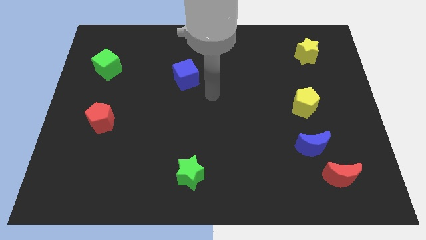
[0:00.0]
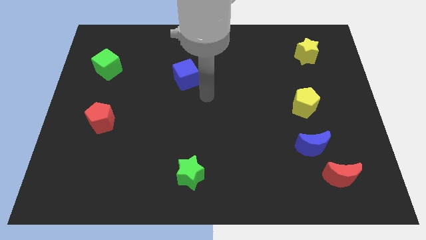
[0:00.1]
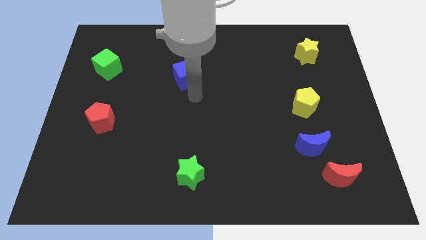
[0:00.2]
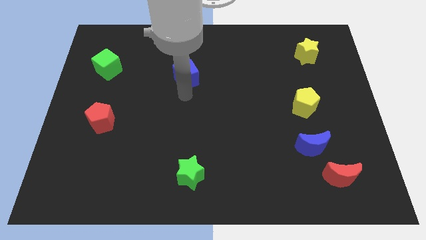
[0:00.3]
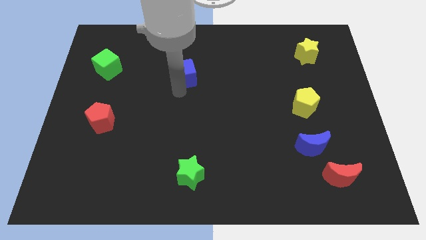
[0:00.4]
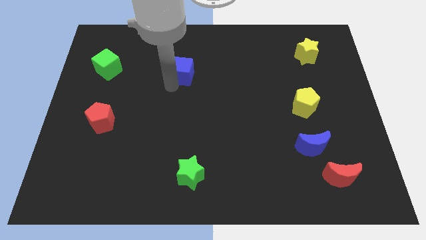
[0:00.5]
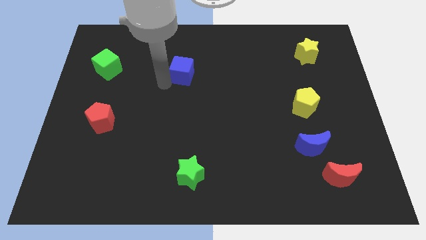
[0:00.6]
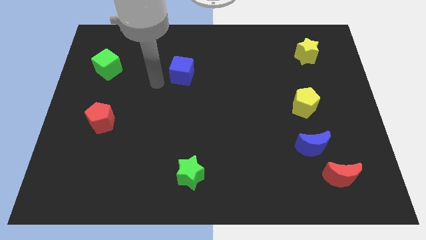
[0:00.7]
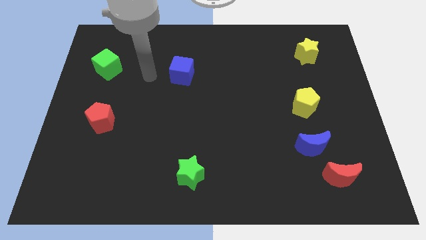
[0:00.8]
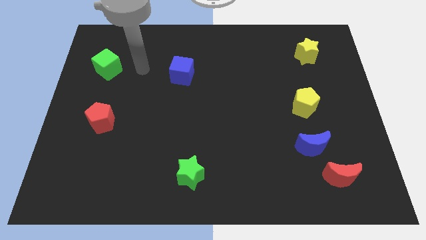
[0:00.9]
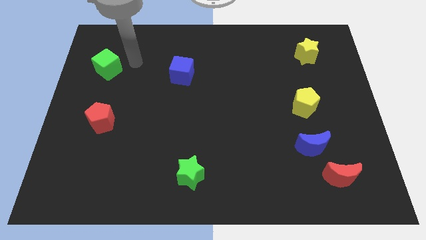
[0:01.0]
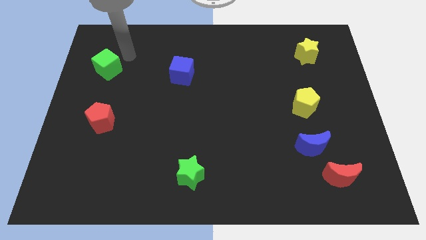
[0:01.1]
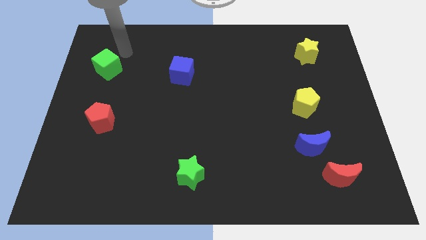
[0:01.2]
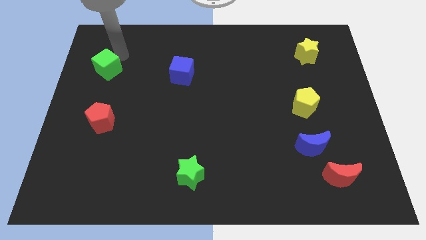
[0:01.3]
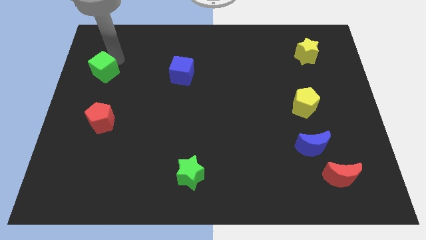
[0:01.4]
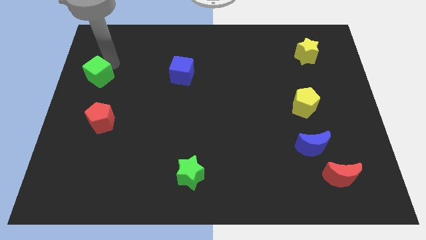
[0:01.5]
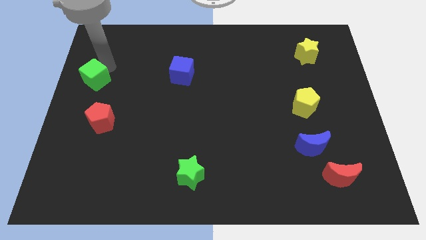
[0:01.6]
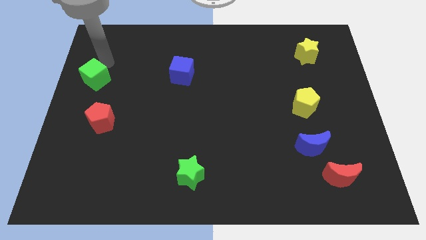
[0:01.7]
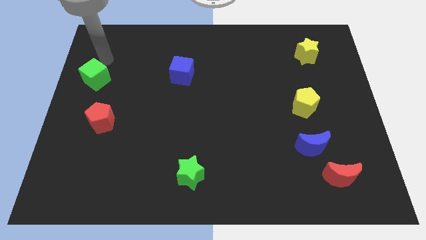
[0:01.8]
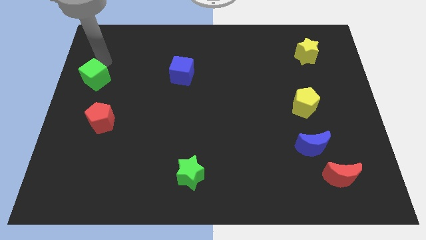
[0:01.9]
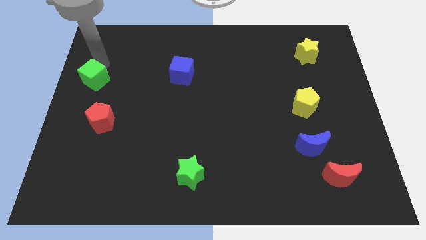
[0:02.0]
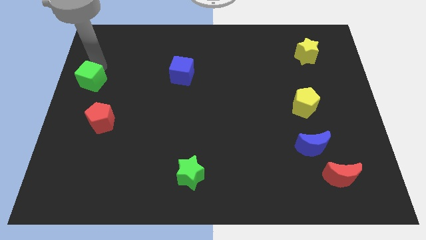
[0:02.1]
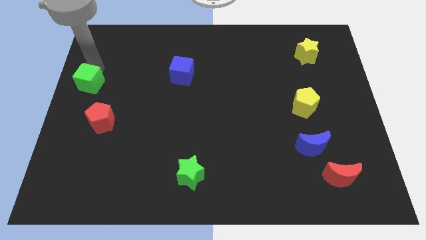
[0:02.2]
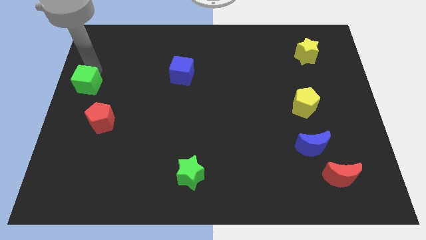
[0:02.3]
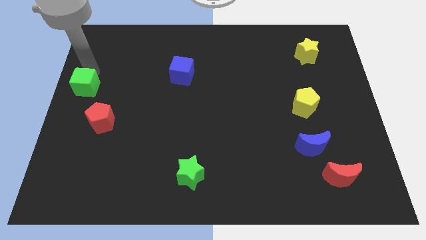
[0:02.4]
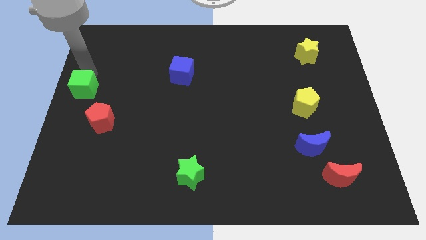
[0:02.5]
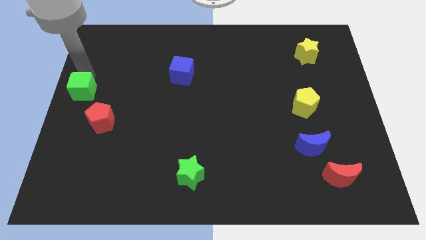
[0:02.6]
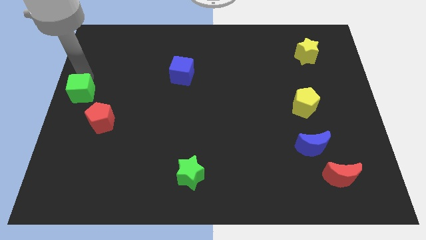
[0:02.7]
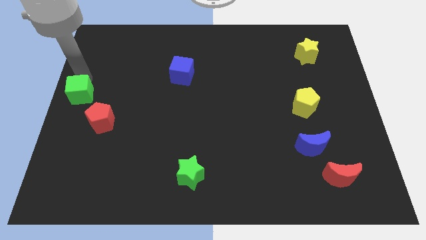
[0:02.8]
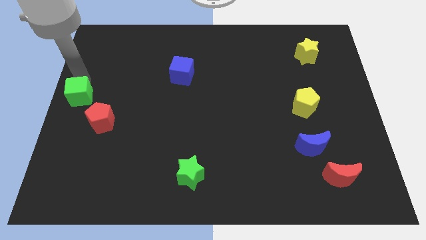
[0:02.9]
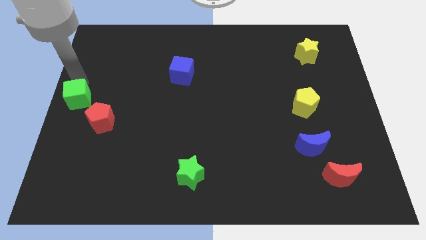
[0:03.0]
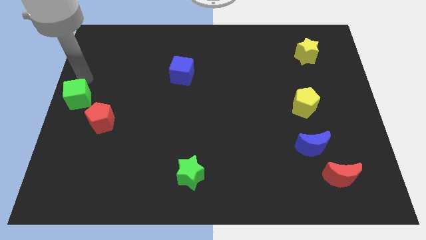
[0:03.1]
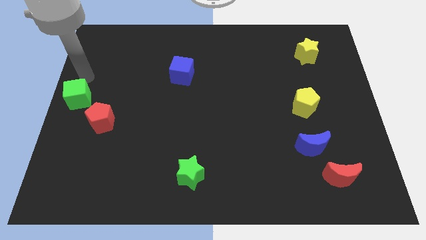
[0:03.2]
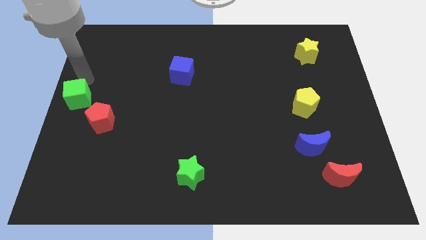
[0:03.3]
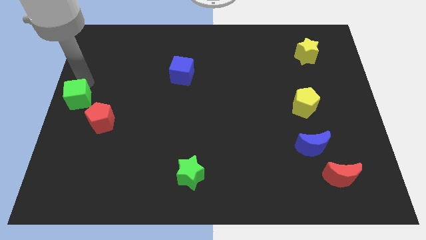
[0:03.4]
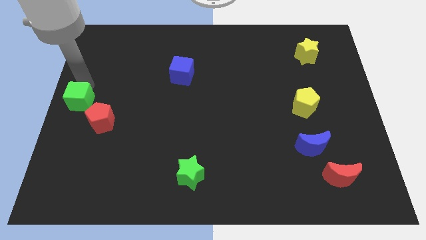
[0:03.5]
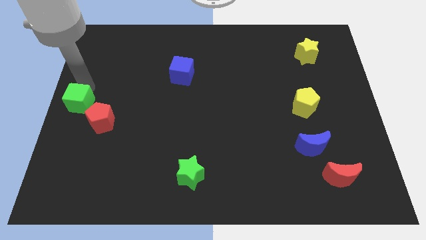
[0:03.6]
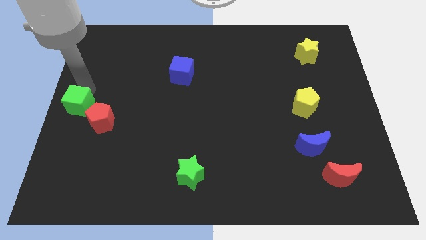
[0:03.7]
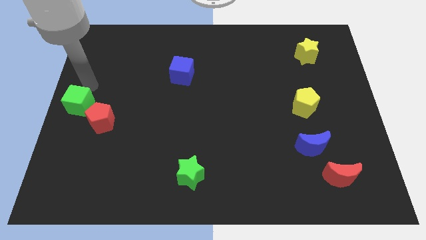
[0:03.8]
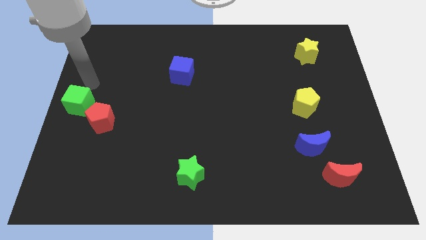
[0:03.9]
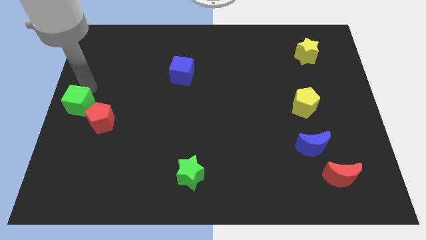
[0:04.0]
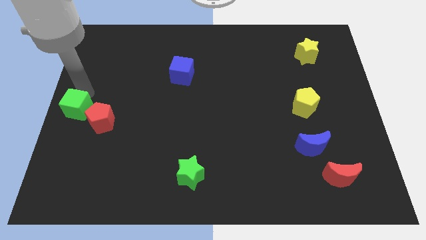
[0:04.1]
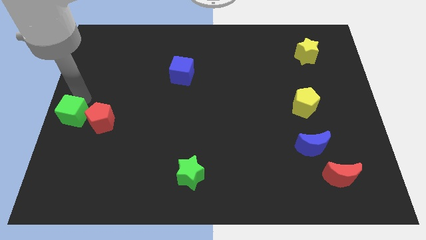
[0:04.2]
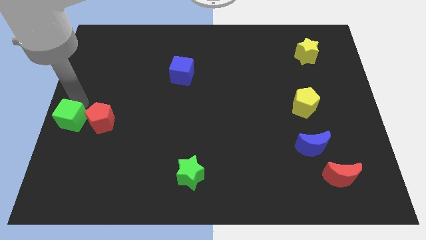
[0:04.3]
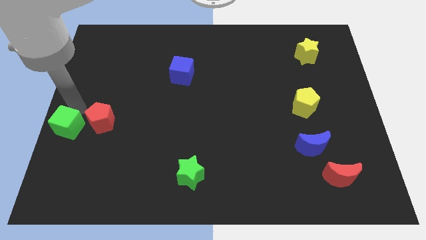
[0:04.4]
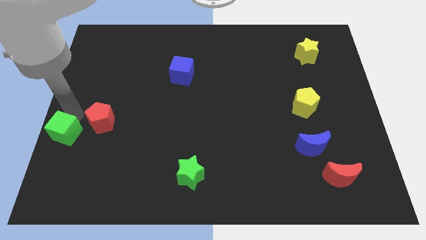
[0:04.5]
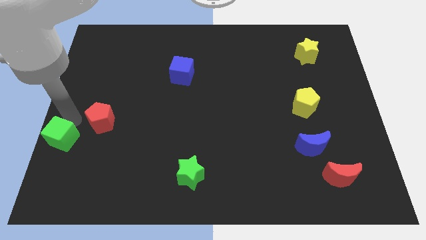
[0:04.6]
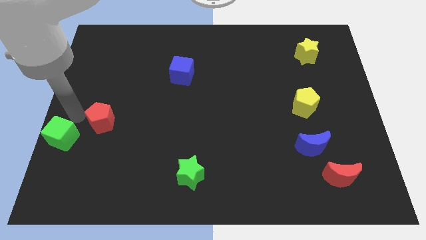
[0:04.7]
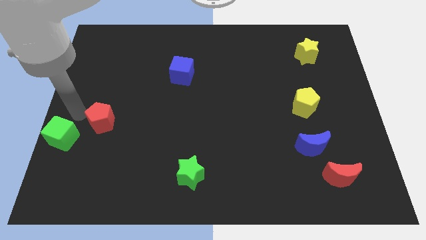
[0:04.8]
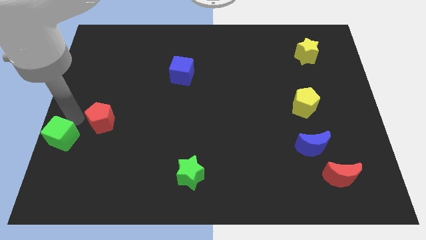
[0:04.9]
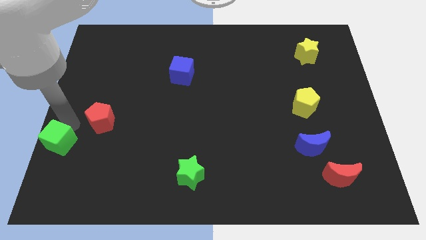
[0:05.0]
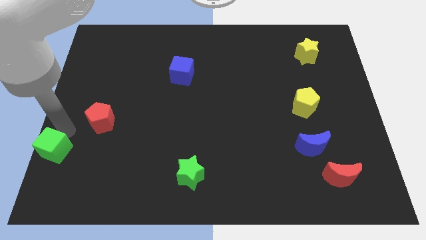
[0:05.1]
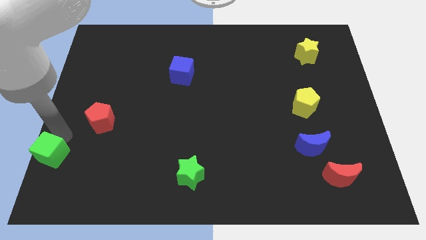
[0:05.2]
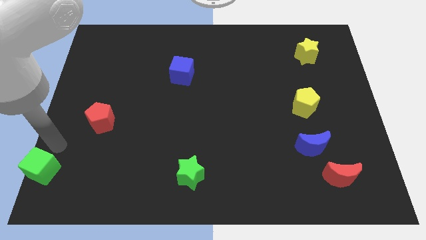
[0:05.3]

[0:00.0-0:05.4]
push the green cube to the bottom left corner

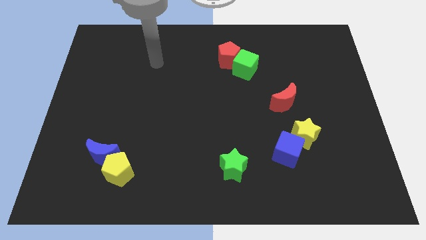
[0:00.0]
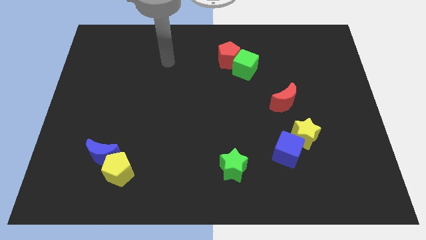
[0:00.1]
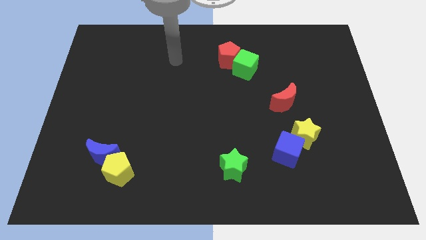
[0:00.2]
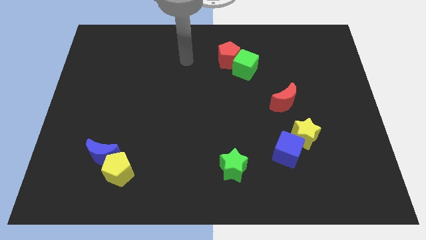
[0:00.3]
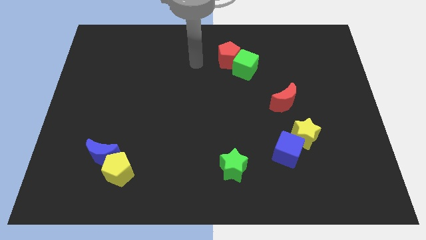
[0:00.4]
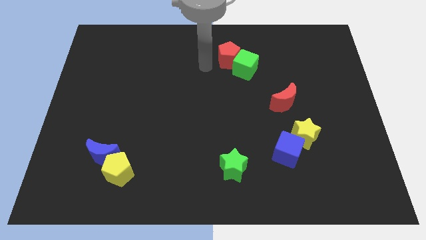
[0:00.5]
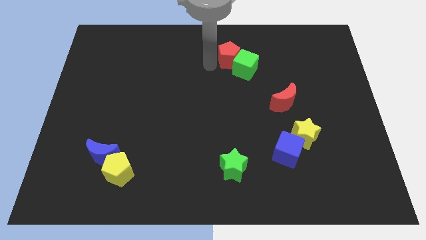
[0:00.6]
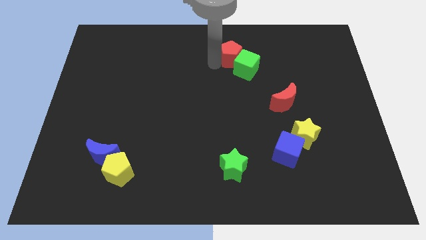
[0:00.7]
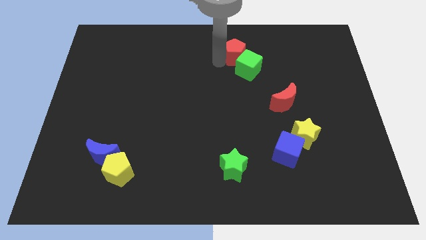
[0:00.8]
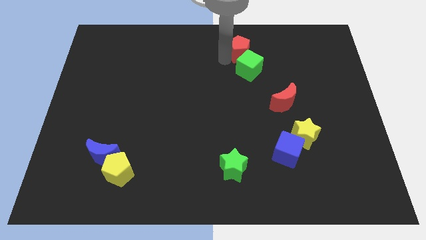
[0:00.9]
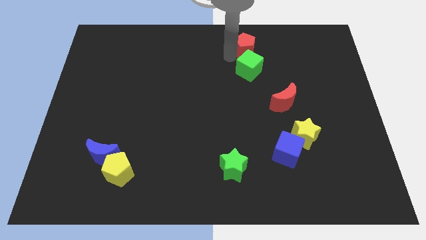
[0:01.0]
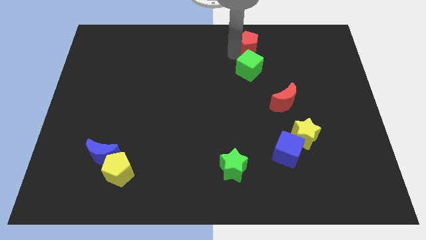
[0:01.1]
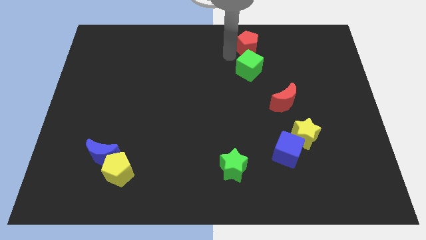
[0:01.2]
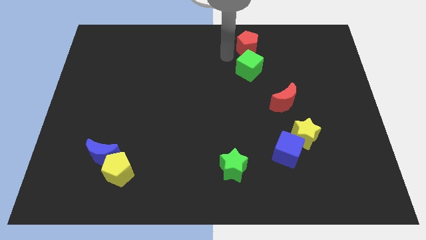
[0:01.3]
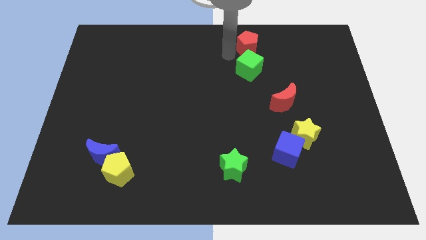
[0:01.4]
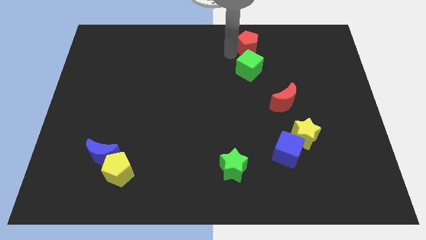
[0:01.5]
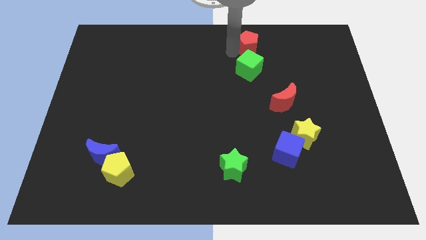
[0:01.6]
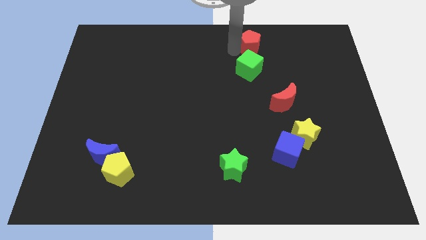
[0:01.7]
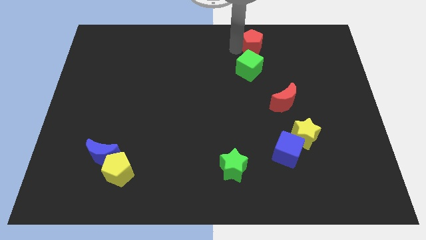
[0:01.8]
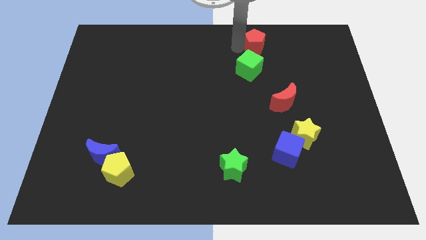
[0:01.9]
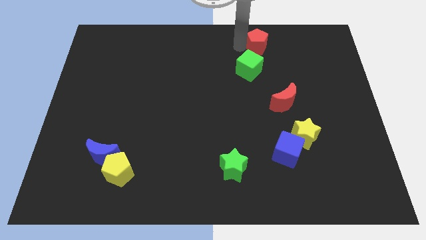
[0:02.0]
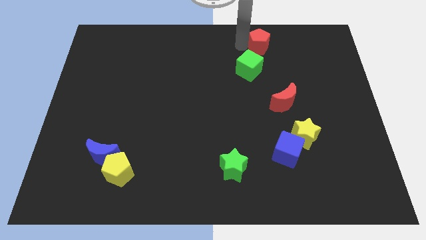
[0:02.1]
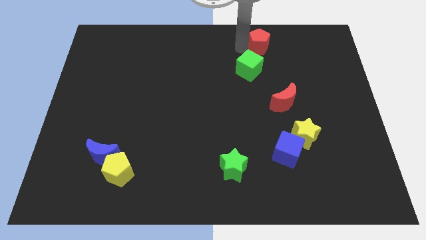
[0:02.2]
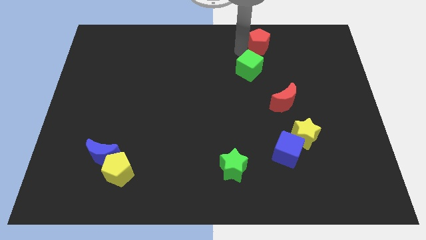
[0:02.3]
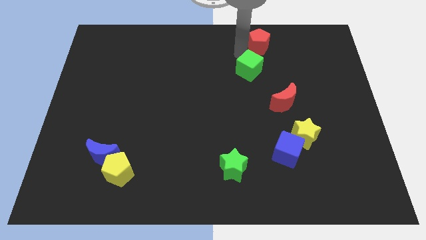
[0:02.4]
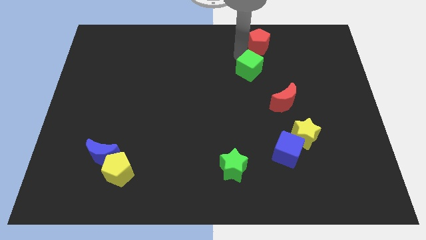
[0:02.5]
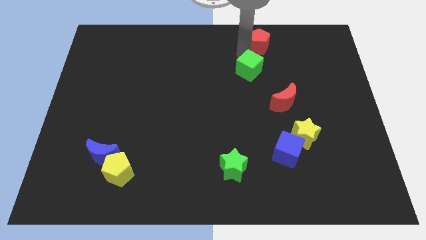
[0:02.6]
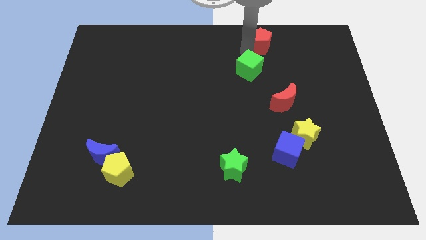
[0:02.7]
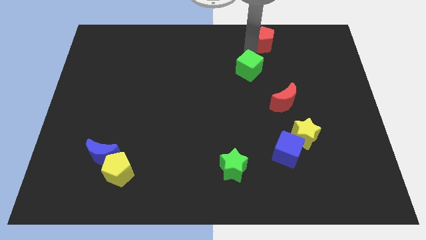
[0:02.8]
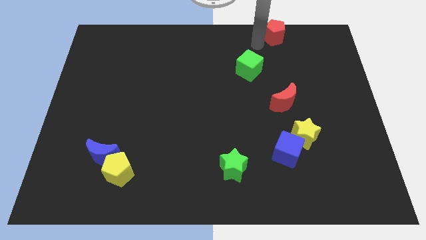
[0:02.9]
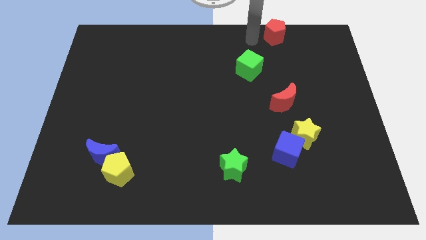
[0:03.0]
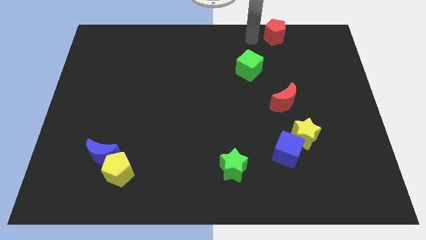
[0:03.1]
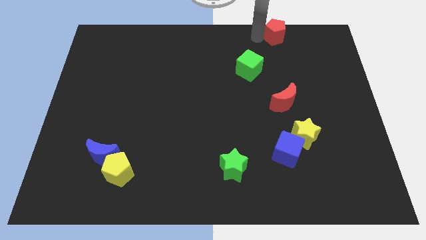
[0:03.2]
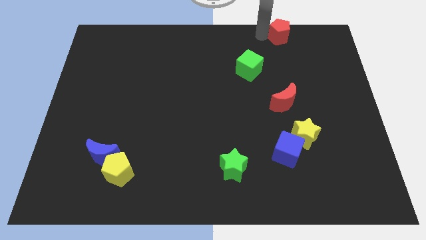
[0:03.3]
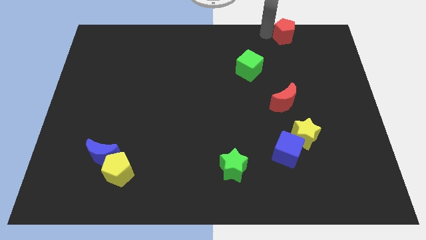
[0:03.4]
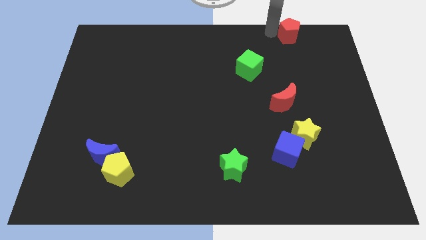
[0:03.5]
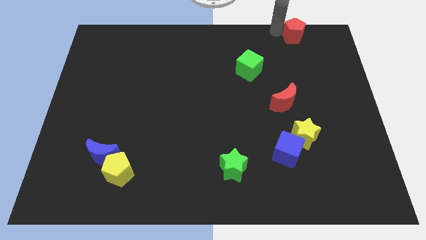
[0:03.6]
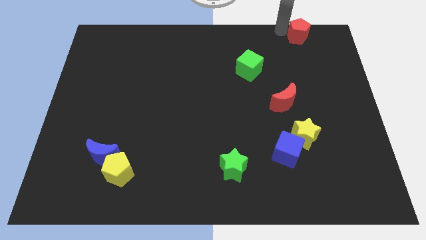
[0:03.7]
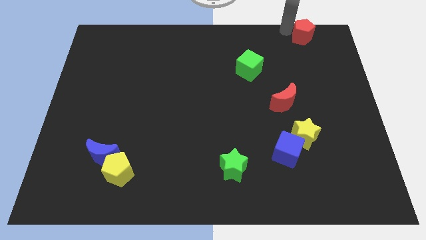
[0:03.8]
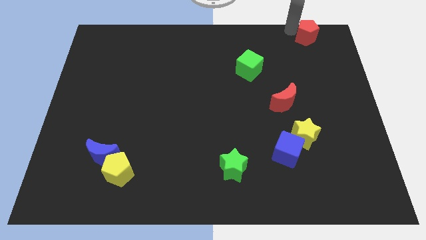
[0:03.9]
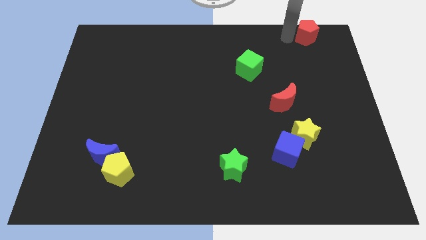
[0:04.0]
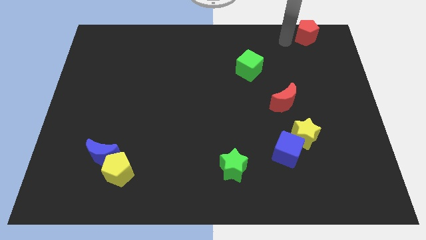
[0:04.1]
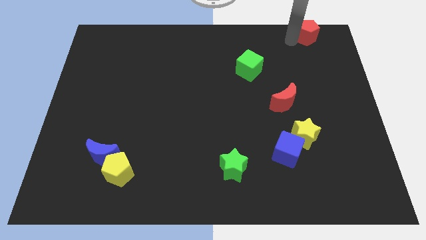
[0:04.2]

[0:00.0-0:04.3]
put the red pentagon to the top right corner
